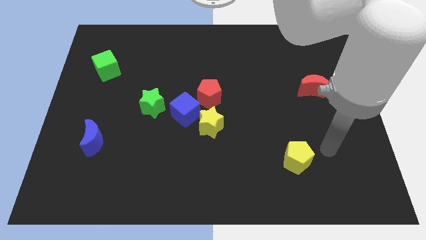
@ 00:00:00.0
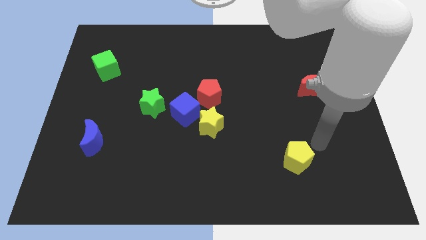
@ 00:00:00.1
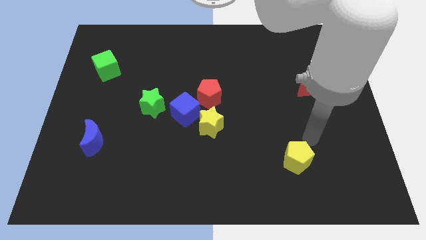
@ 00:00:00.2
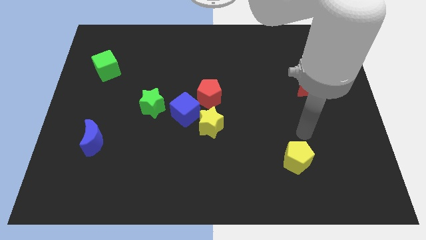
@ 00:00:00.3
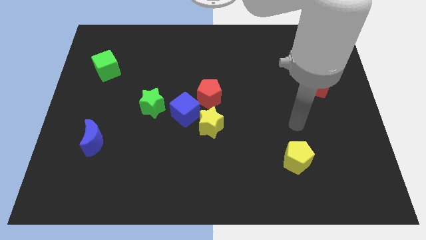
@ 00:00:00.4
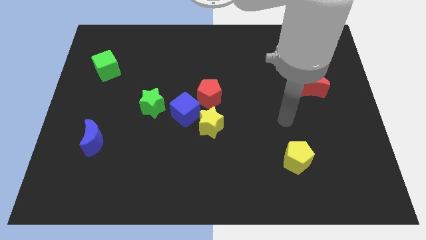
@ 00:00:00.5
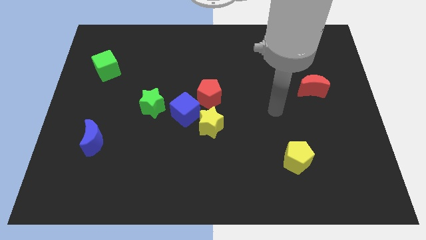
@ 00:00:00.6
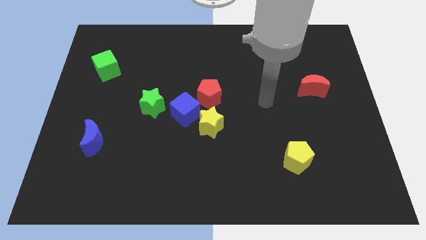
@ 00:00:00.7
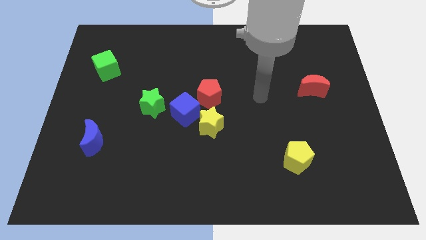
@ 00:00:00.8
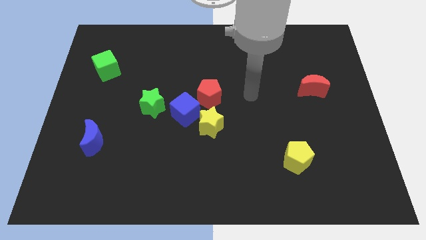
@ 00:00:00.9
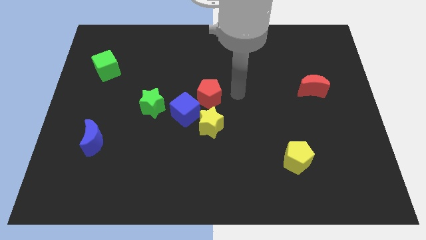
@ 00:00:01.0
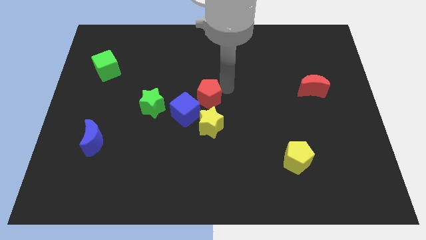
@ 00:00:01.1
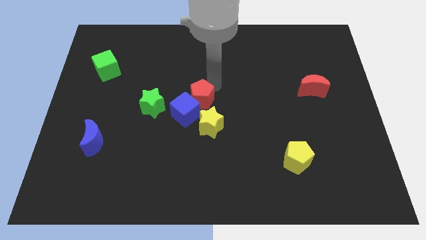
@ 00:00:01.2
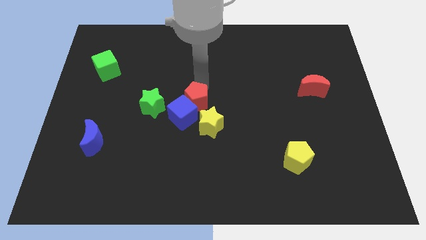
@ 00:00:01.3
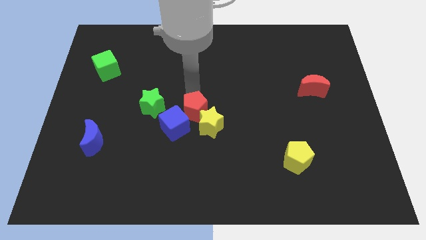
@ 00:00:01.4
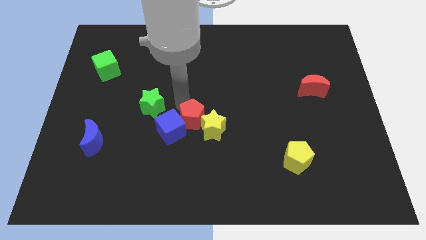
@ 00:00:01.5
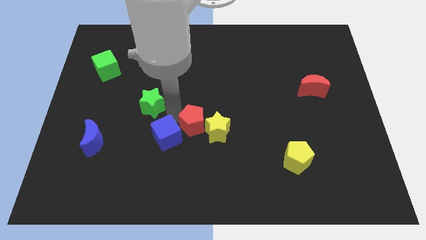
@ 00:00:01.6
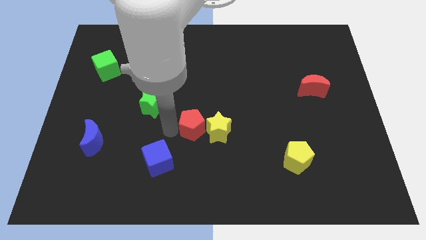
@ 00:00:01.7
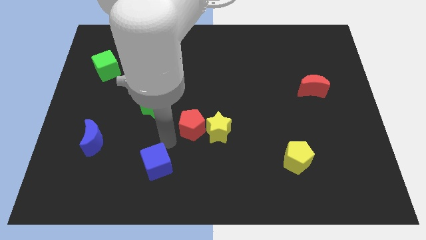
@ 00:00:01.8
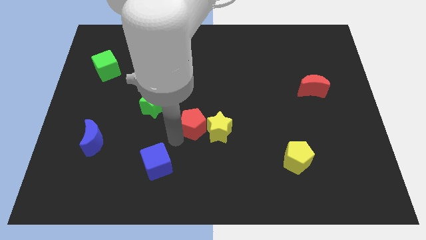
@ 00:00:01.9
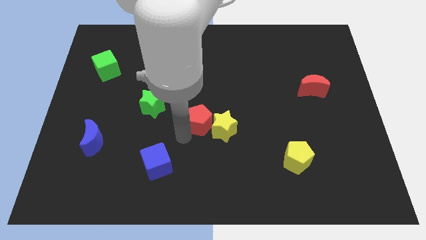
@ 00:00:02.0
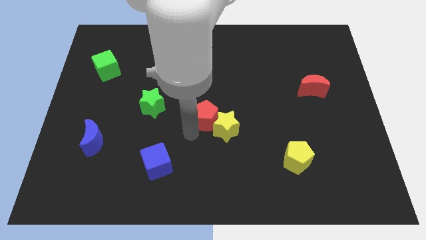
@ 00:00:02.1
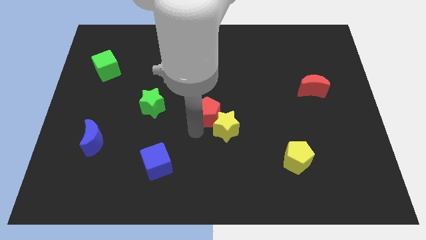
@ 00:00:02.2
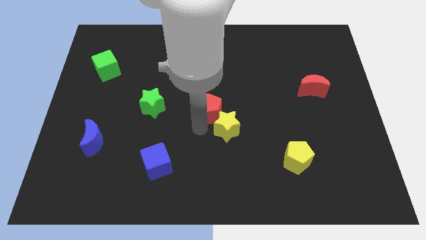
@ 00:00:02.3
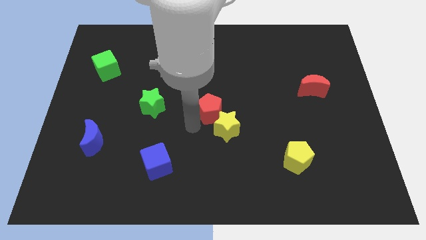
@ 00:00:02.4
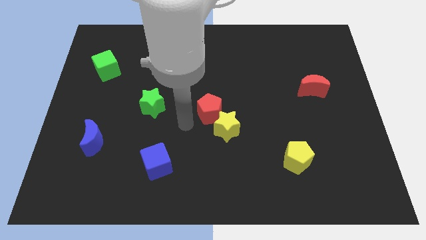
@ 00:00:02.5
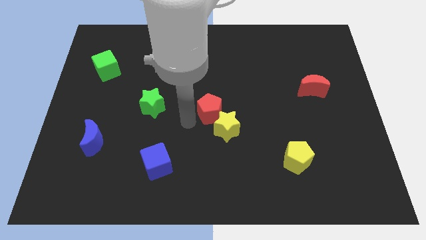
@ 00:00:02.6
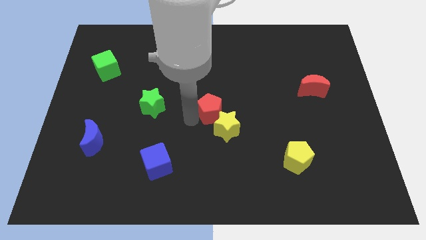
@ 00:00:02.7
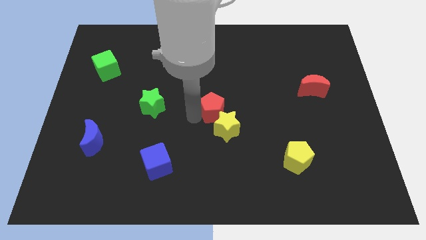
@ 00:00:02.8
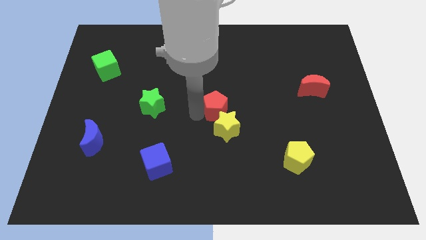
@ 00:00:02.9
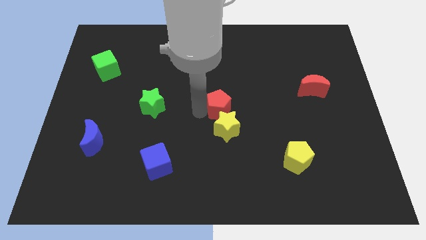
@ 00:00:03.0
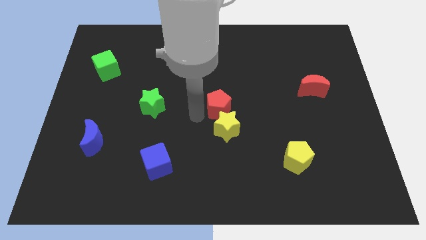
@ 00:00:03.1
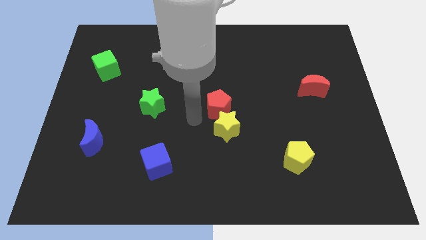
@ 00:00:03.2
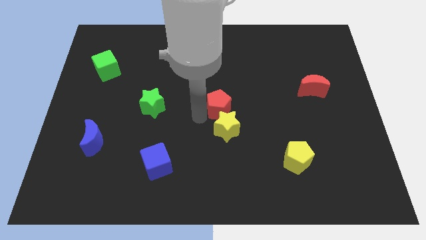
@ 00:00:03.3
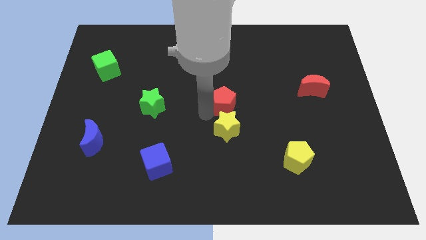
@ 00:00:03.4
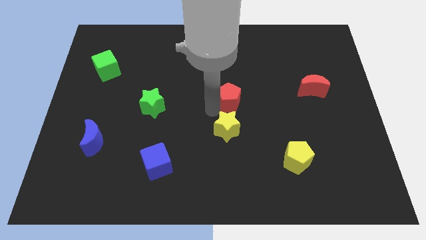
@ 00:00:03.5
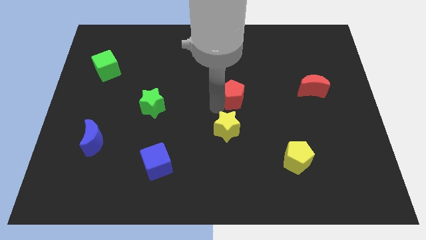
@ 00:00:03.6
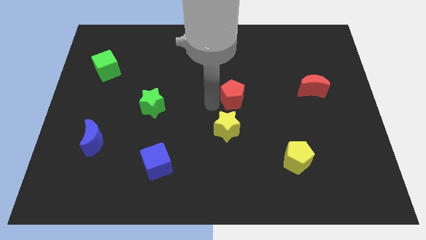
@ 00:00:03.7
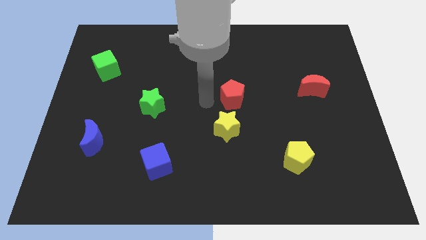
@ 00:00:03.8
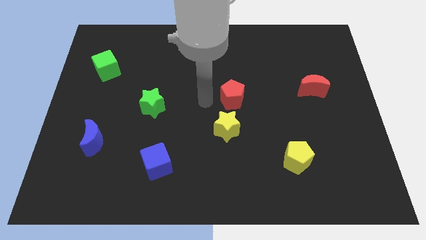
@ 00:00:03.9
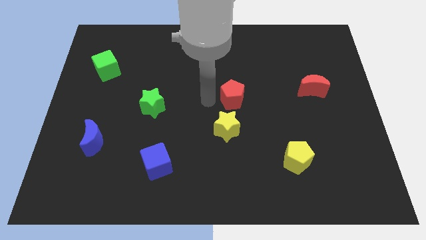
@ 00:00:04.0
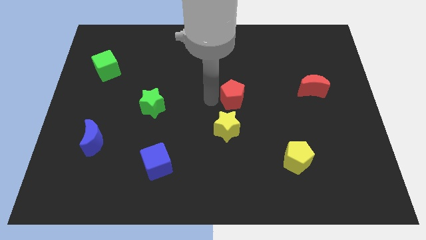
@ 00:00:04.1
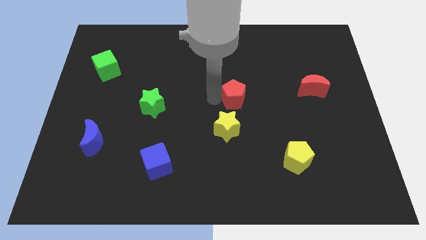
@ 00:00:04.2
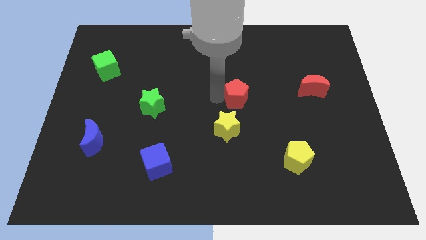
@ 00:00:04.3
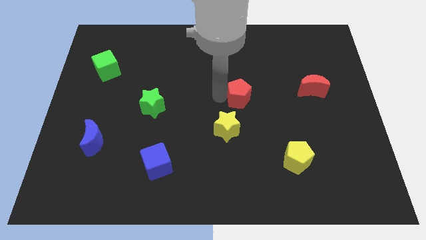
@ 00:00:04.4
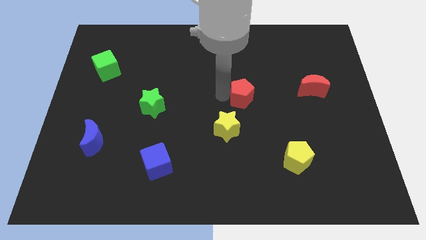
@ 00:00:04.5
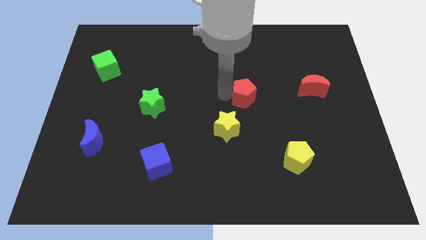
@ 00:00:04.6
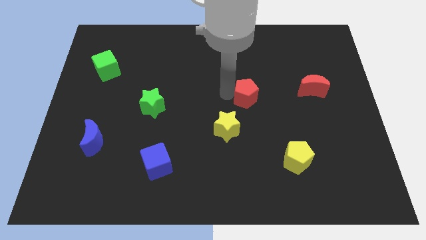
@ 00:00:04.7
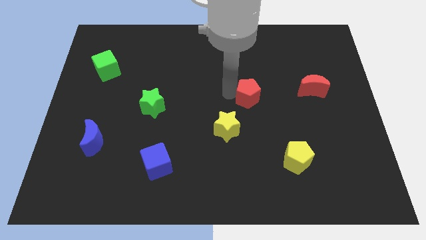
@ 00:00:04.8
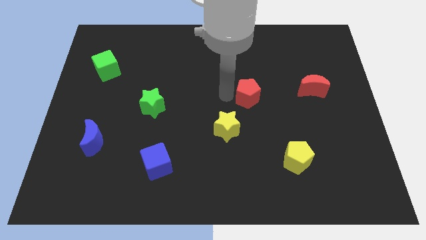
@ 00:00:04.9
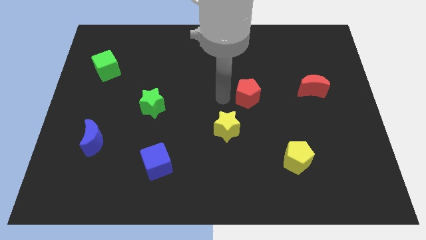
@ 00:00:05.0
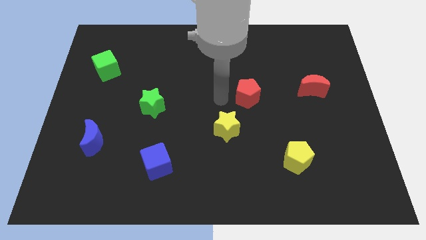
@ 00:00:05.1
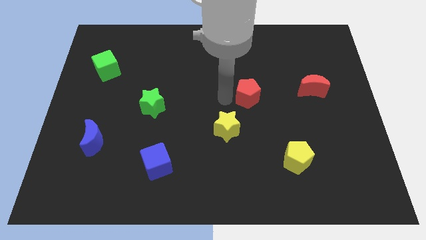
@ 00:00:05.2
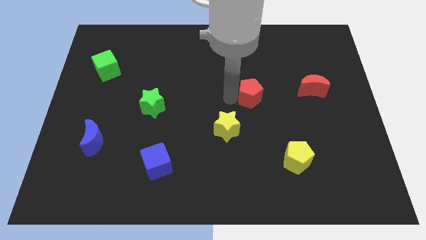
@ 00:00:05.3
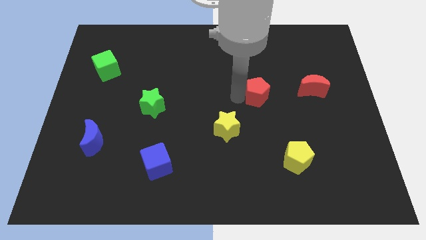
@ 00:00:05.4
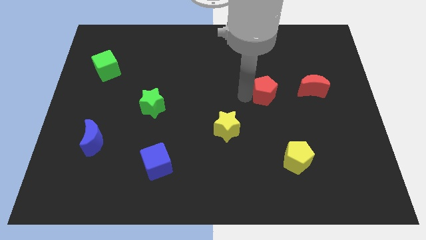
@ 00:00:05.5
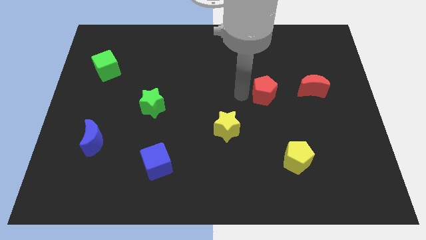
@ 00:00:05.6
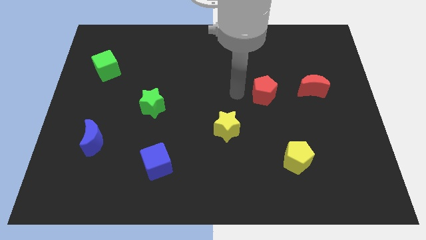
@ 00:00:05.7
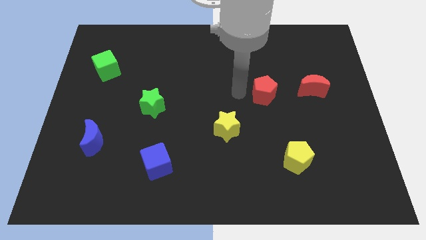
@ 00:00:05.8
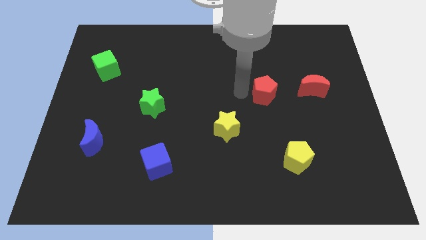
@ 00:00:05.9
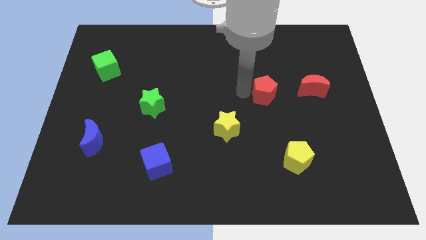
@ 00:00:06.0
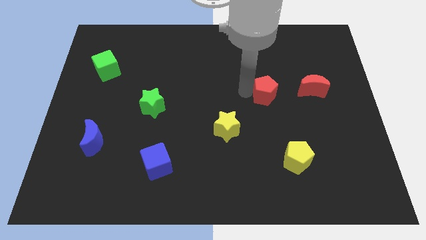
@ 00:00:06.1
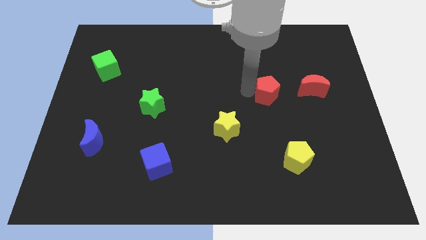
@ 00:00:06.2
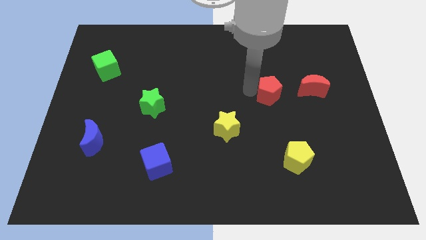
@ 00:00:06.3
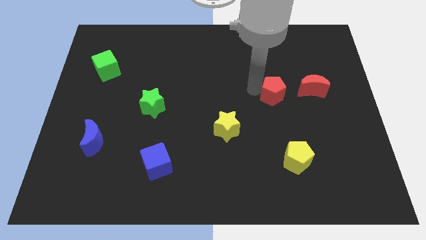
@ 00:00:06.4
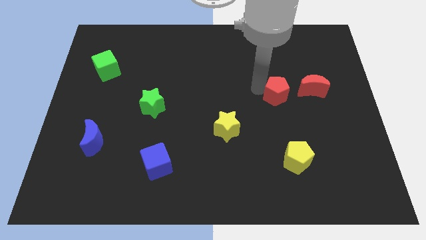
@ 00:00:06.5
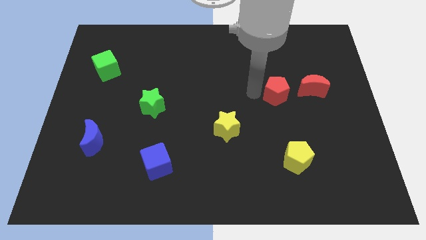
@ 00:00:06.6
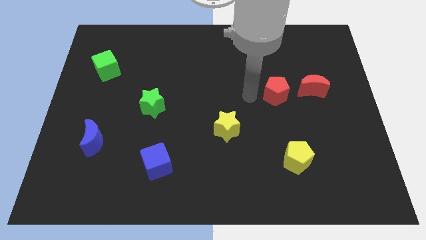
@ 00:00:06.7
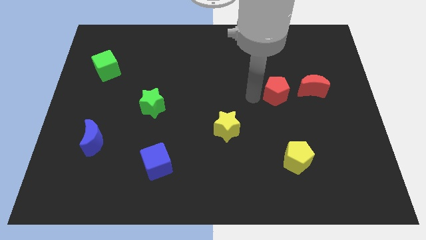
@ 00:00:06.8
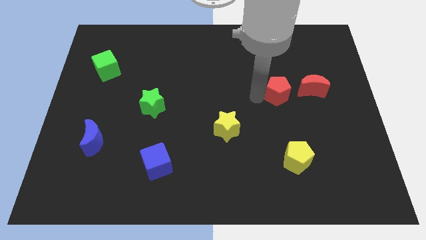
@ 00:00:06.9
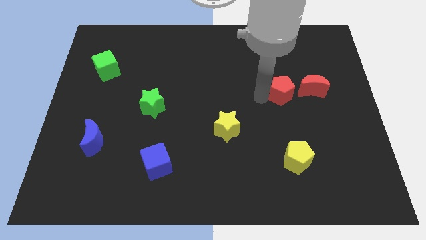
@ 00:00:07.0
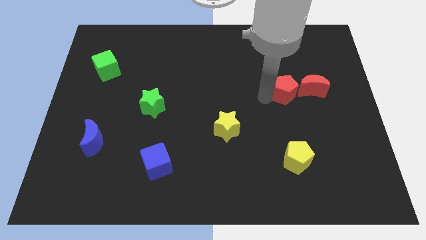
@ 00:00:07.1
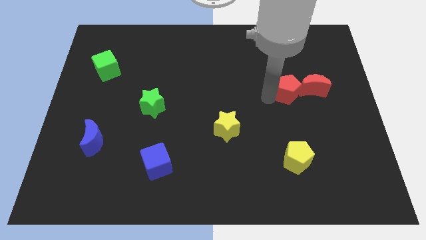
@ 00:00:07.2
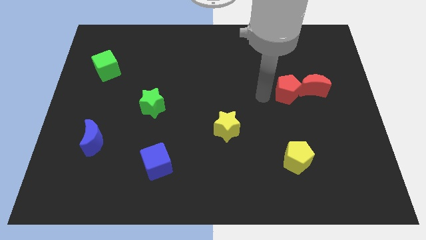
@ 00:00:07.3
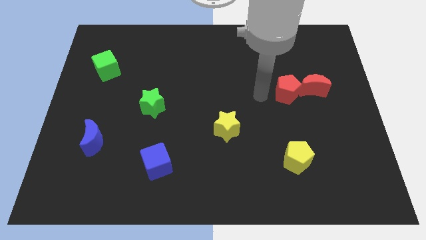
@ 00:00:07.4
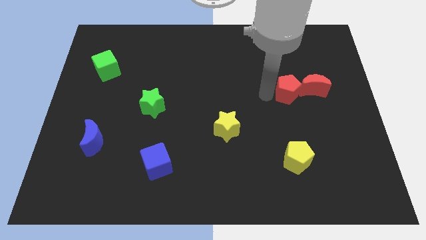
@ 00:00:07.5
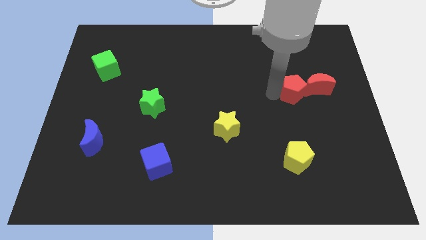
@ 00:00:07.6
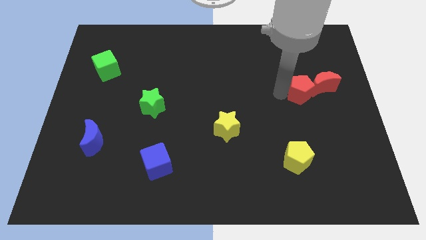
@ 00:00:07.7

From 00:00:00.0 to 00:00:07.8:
move the red pentagon towards the red moon
